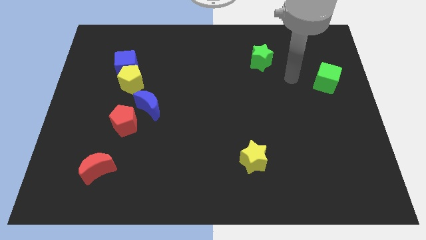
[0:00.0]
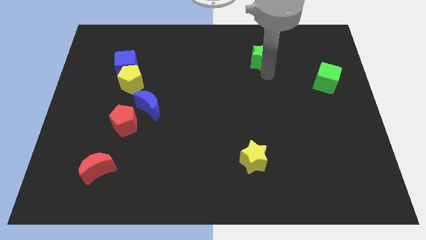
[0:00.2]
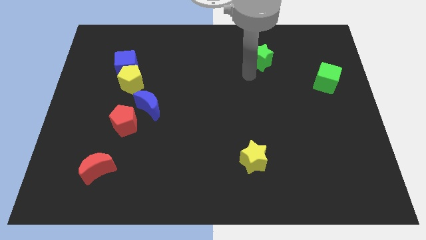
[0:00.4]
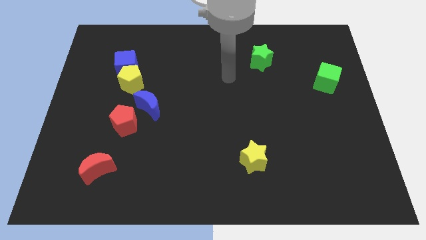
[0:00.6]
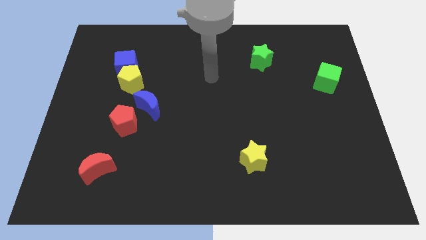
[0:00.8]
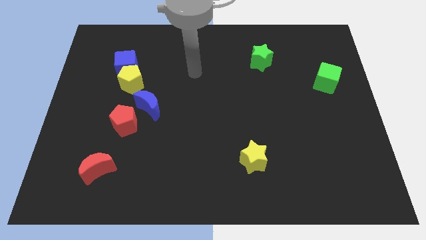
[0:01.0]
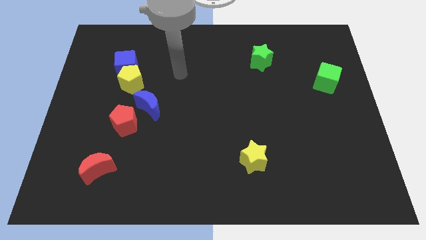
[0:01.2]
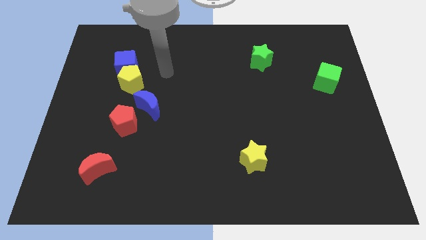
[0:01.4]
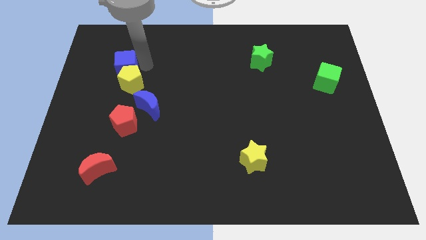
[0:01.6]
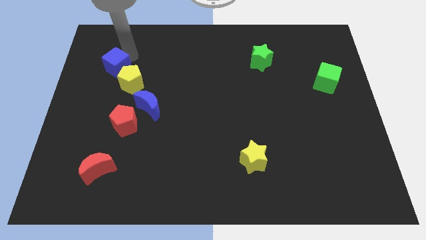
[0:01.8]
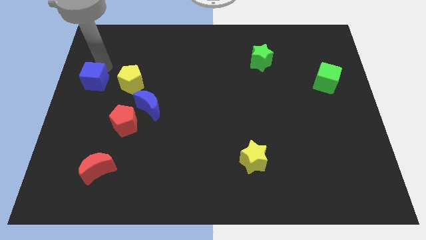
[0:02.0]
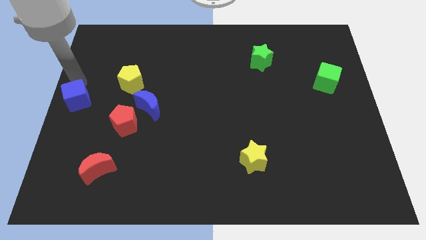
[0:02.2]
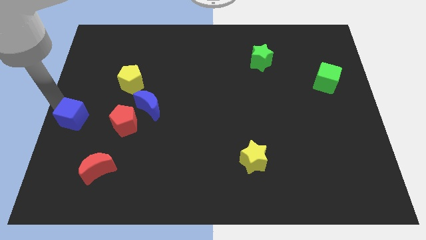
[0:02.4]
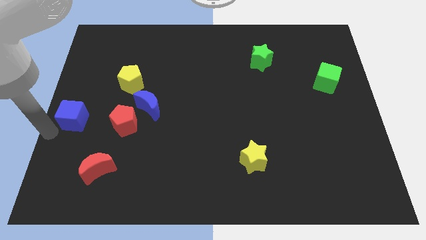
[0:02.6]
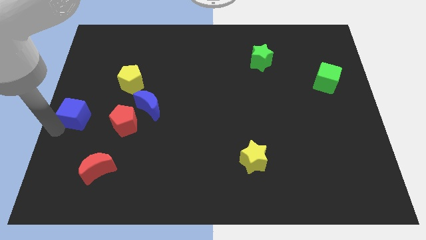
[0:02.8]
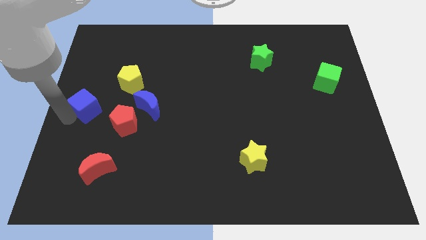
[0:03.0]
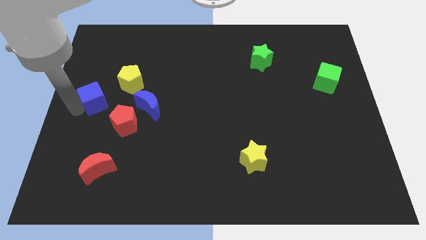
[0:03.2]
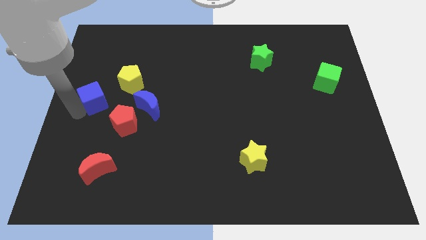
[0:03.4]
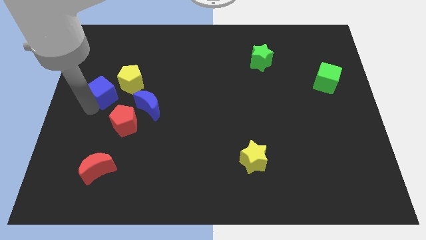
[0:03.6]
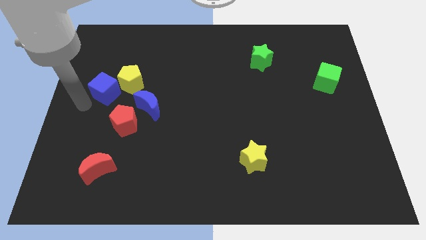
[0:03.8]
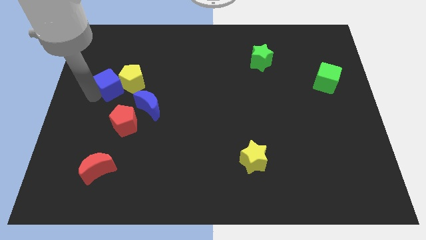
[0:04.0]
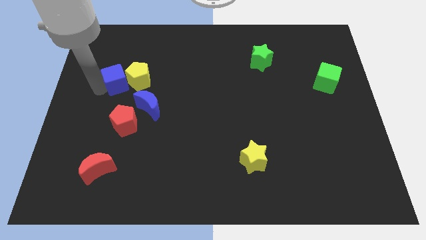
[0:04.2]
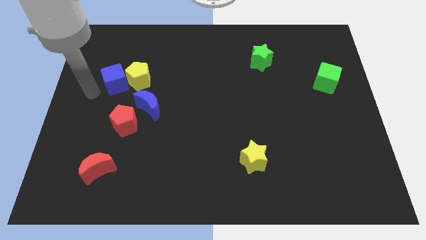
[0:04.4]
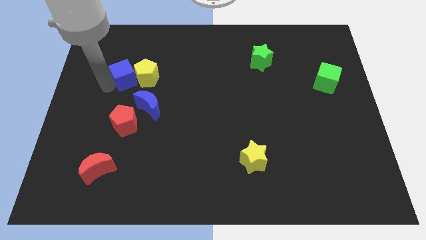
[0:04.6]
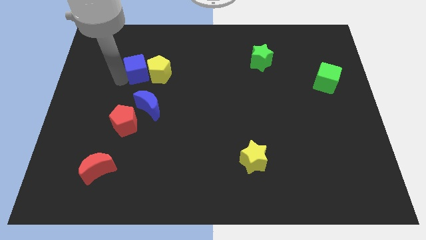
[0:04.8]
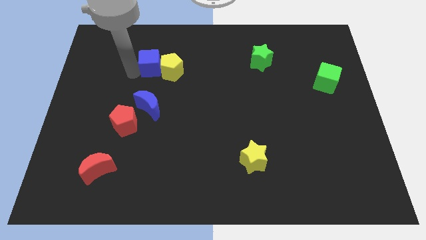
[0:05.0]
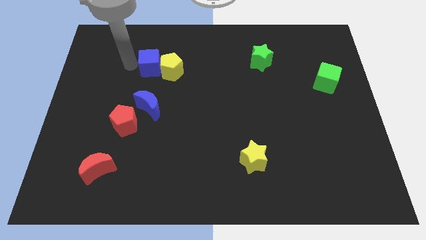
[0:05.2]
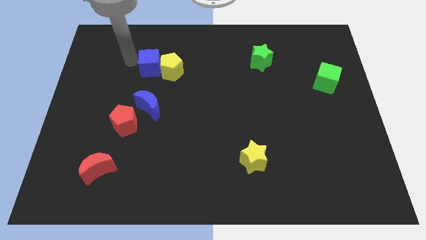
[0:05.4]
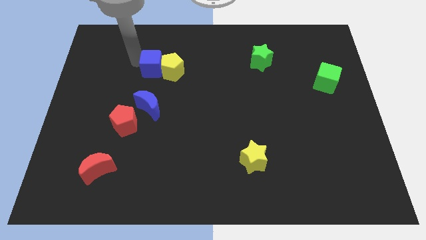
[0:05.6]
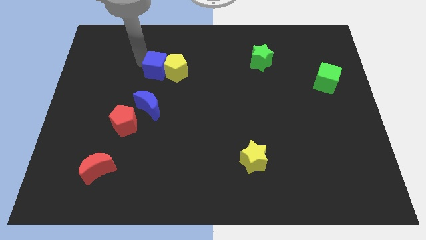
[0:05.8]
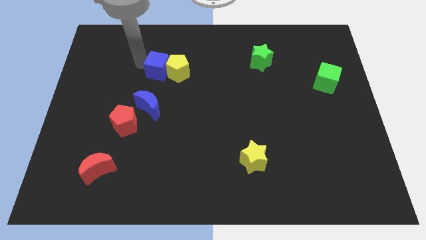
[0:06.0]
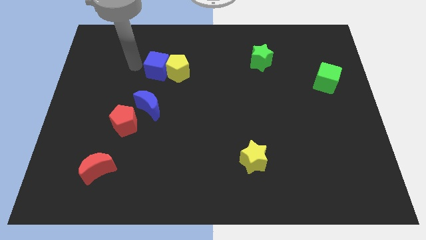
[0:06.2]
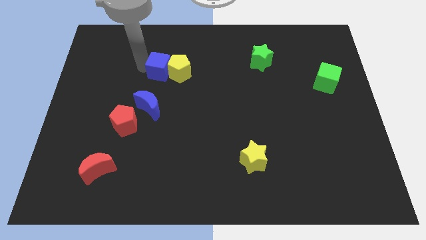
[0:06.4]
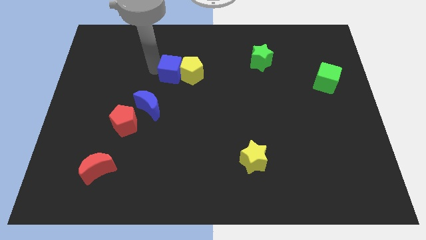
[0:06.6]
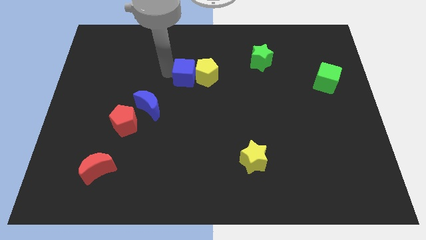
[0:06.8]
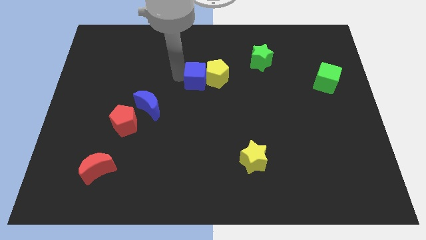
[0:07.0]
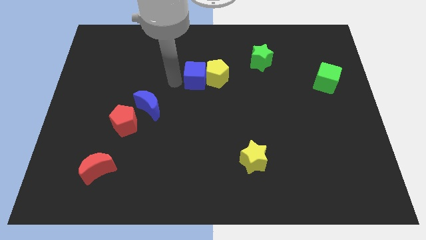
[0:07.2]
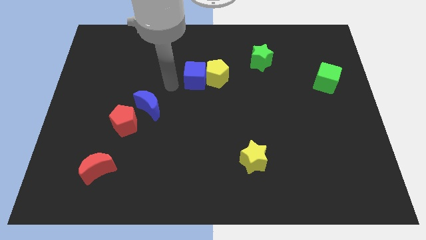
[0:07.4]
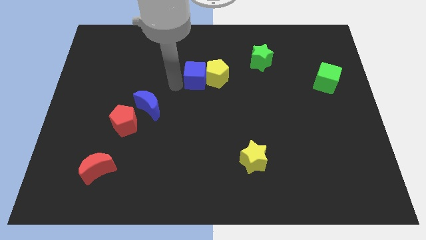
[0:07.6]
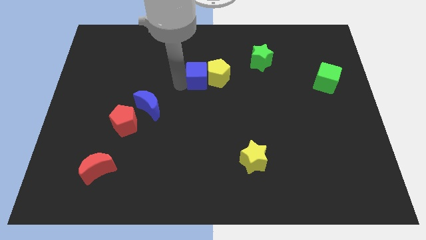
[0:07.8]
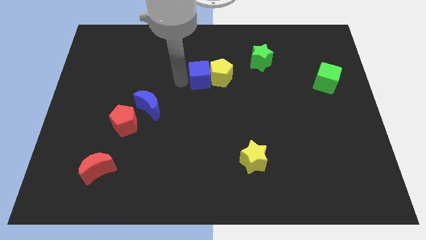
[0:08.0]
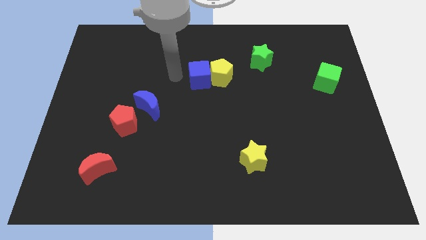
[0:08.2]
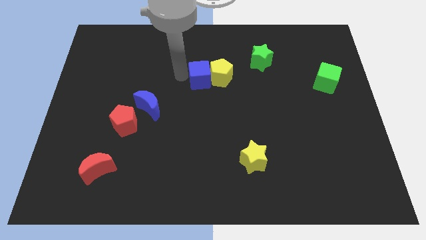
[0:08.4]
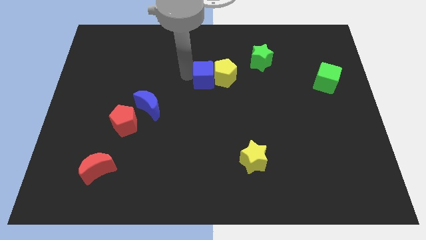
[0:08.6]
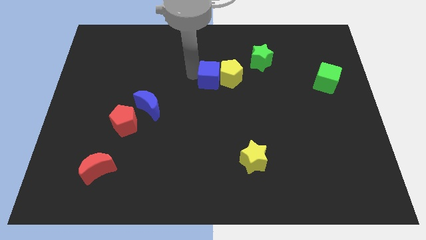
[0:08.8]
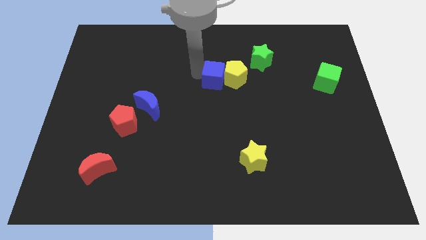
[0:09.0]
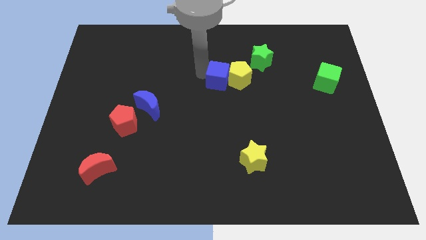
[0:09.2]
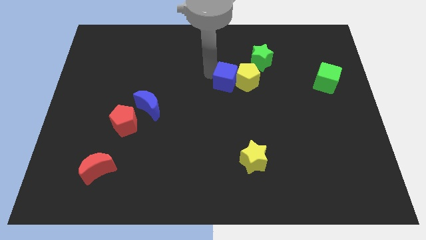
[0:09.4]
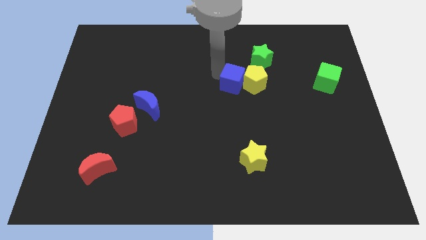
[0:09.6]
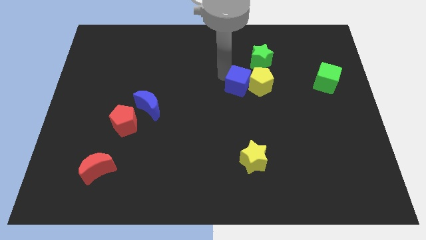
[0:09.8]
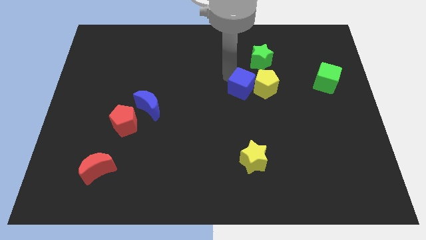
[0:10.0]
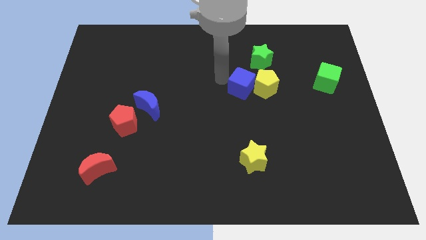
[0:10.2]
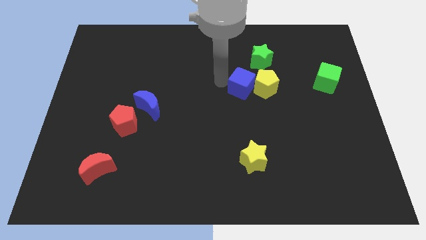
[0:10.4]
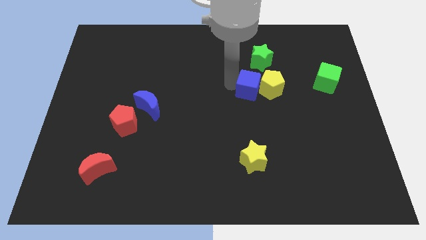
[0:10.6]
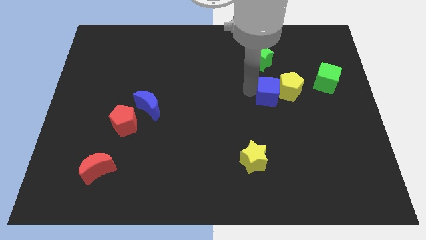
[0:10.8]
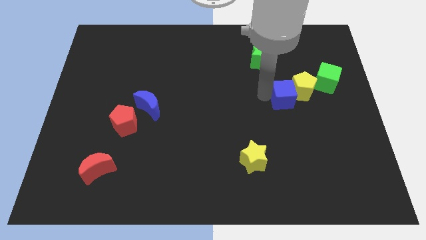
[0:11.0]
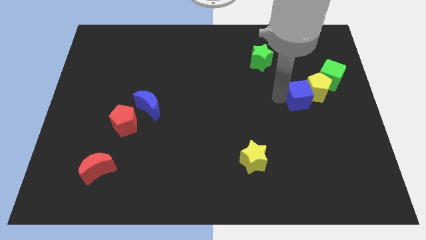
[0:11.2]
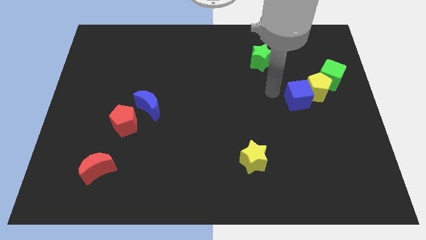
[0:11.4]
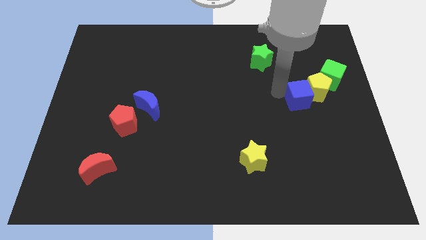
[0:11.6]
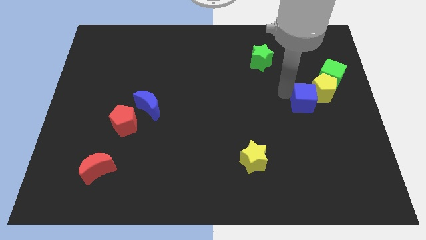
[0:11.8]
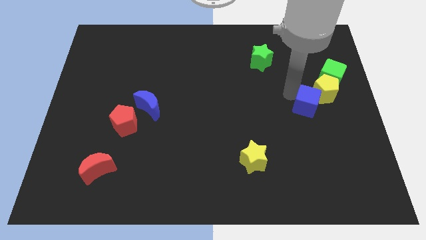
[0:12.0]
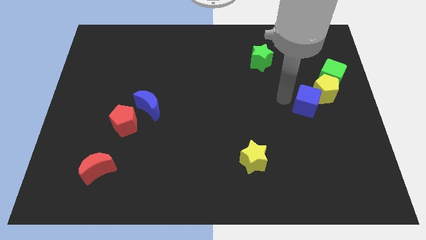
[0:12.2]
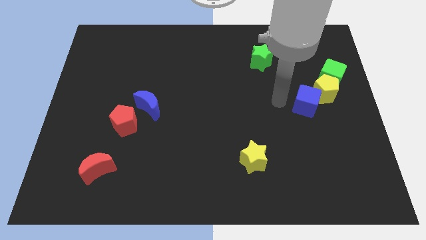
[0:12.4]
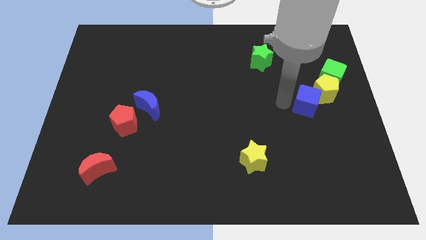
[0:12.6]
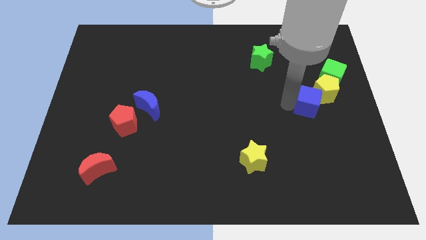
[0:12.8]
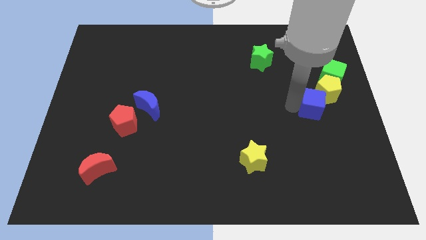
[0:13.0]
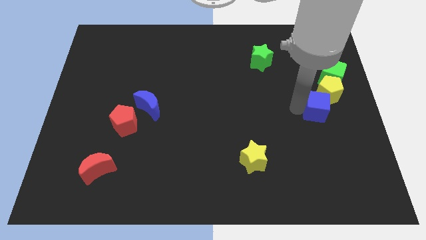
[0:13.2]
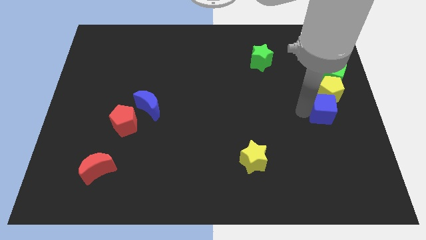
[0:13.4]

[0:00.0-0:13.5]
put the blue cube to the center right
